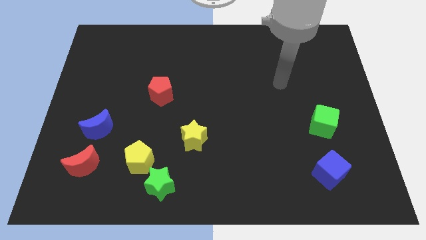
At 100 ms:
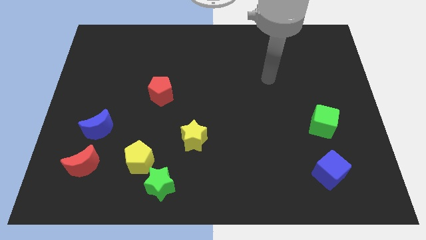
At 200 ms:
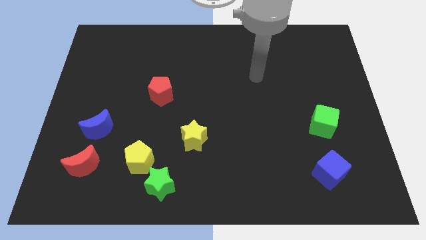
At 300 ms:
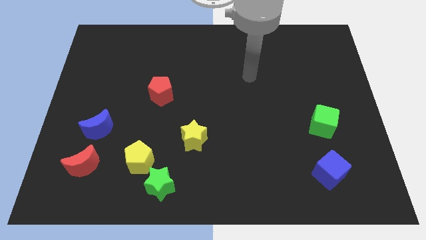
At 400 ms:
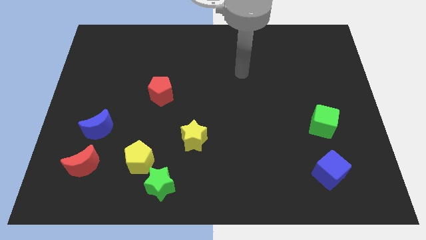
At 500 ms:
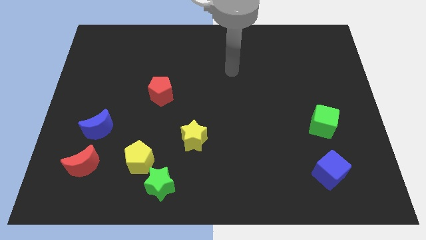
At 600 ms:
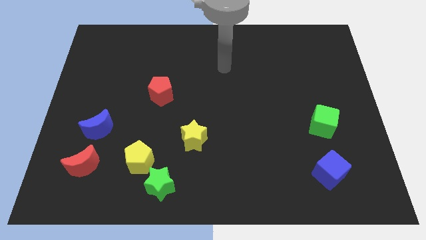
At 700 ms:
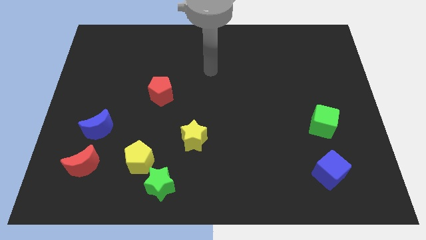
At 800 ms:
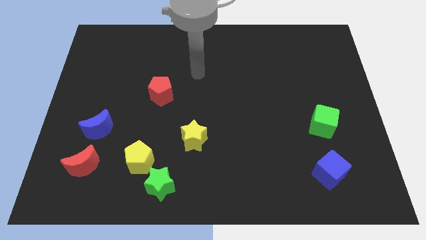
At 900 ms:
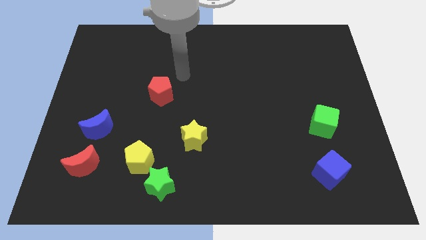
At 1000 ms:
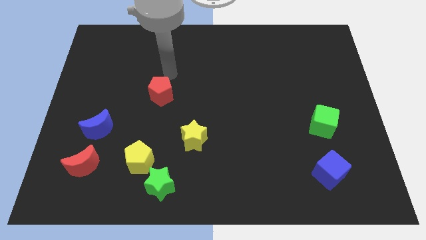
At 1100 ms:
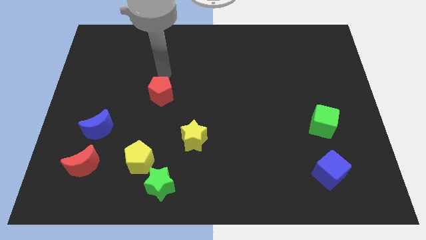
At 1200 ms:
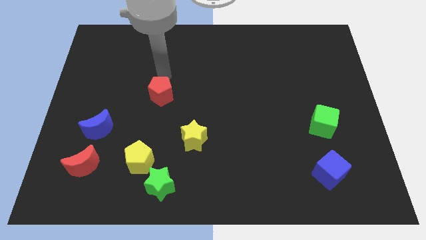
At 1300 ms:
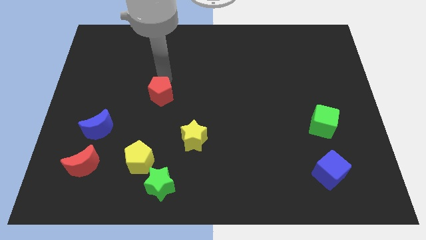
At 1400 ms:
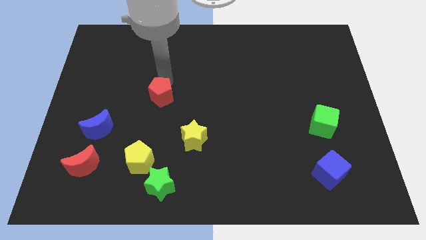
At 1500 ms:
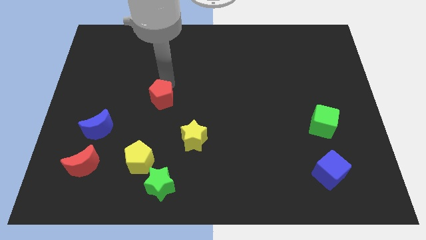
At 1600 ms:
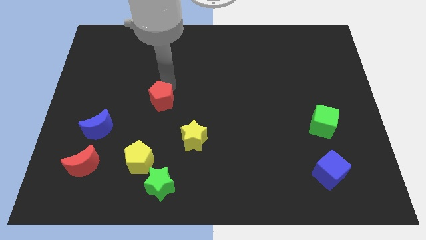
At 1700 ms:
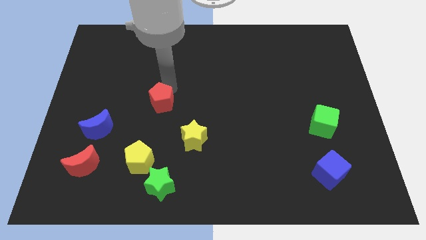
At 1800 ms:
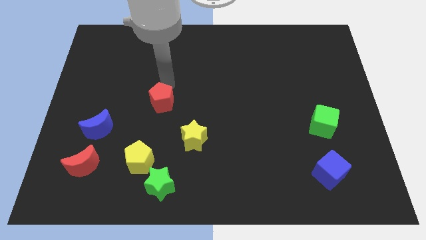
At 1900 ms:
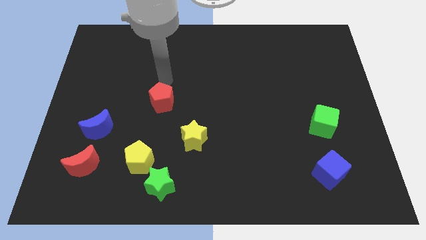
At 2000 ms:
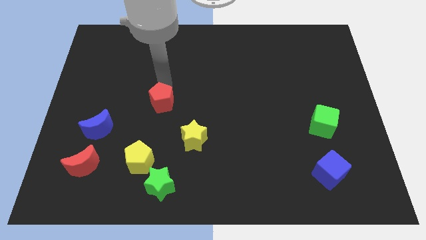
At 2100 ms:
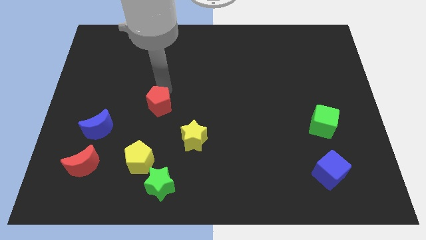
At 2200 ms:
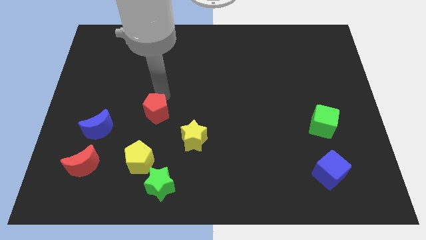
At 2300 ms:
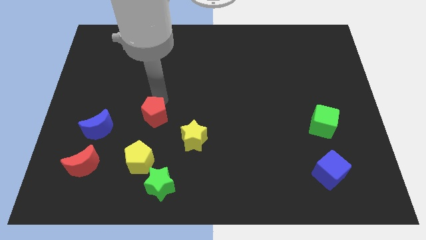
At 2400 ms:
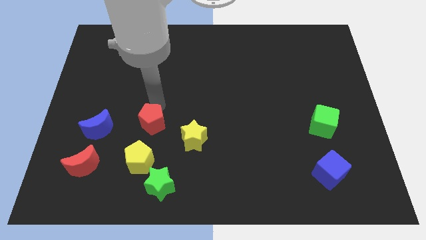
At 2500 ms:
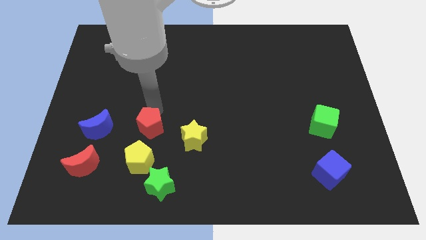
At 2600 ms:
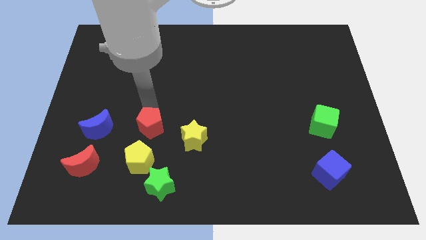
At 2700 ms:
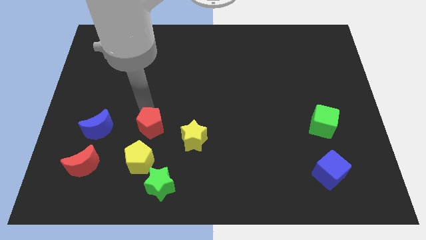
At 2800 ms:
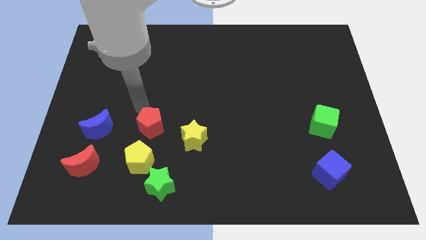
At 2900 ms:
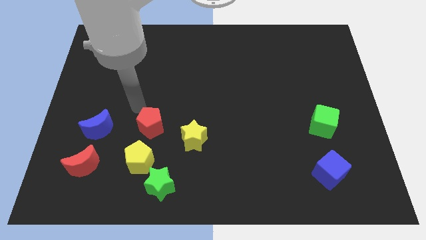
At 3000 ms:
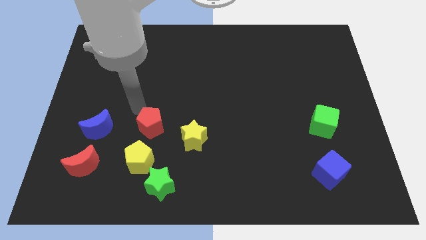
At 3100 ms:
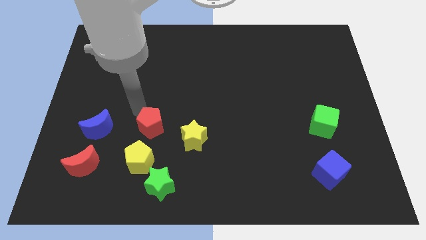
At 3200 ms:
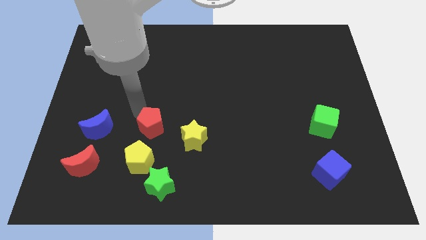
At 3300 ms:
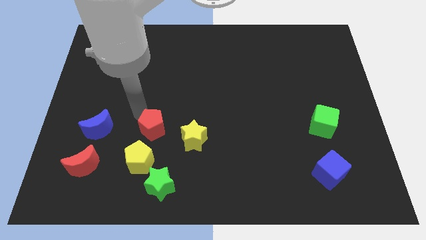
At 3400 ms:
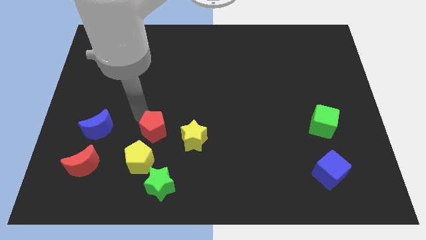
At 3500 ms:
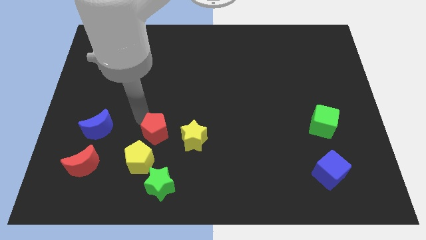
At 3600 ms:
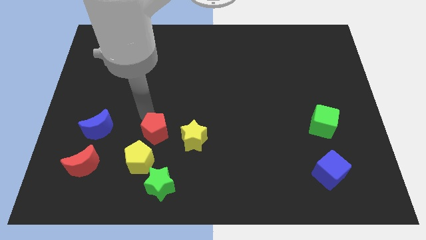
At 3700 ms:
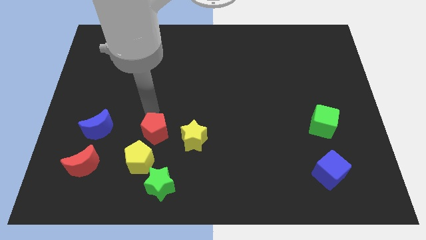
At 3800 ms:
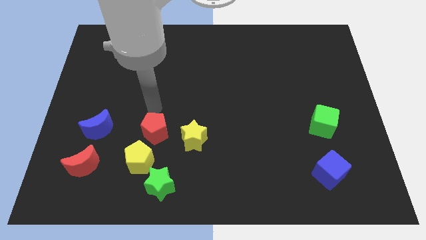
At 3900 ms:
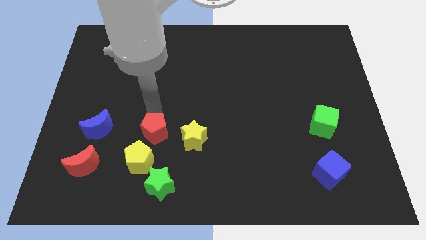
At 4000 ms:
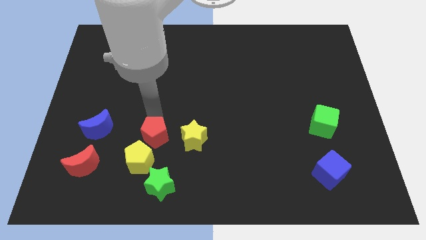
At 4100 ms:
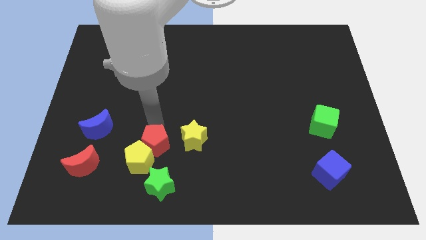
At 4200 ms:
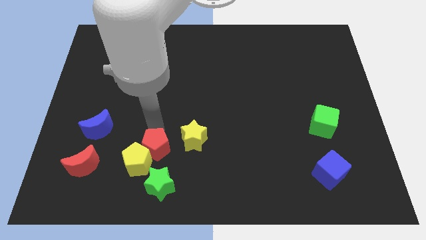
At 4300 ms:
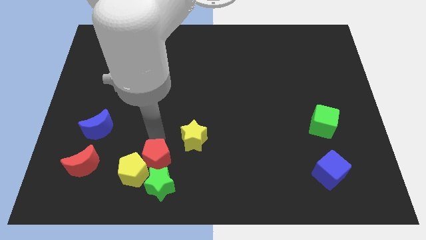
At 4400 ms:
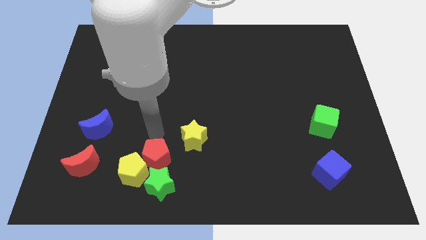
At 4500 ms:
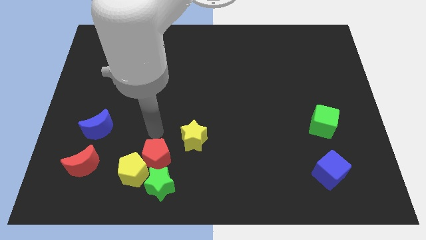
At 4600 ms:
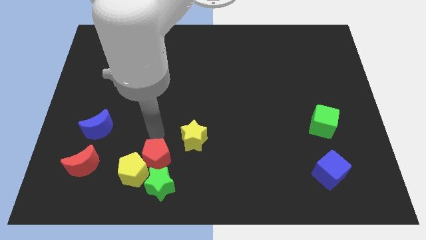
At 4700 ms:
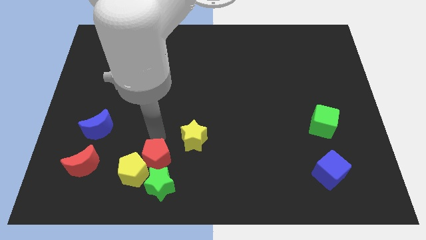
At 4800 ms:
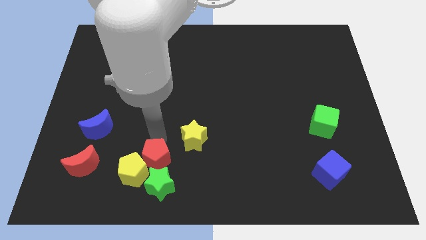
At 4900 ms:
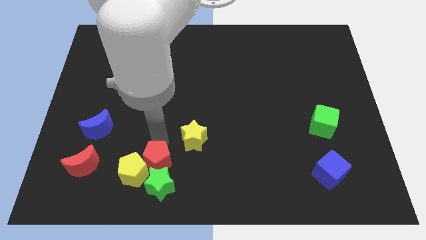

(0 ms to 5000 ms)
slide the red pentagon to the green star

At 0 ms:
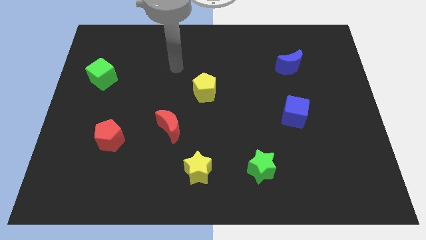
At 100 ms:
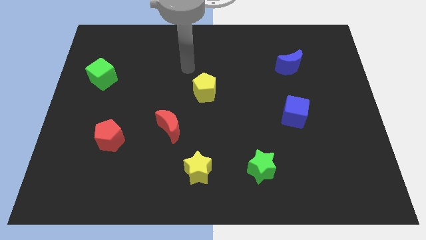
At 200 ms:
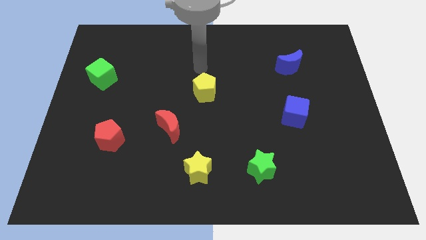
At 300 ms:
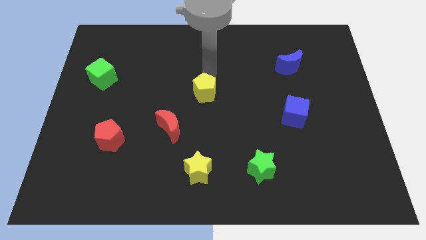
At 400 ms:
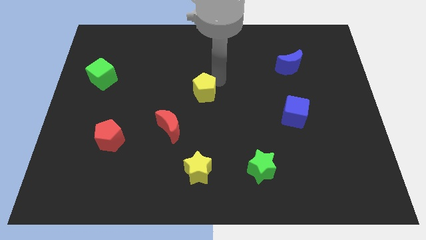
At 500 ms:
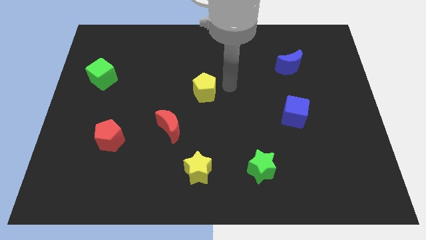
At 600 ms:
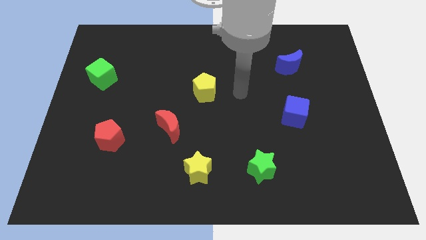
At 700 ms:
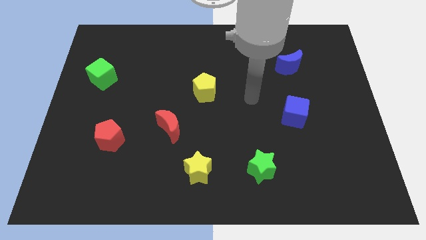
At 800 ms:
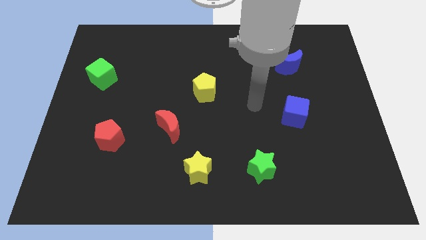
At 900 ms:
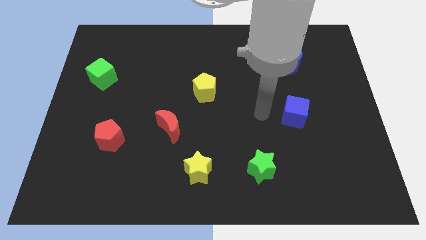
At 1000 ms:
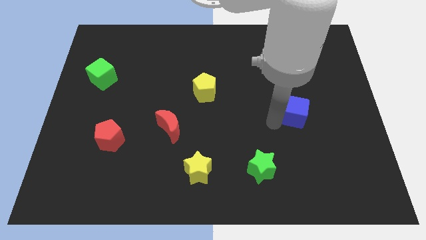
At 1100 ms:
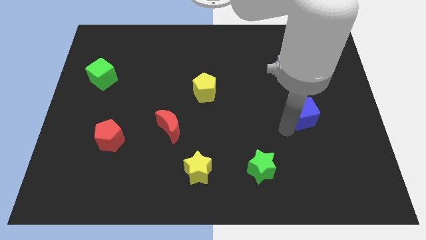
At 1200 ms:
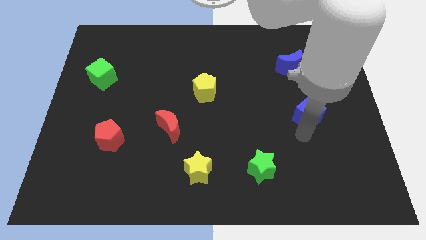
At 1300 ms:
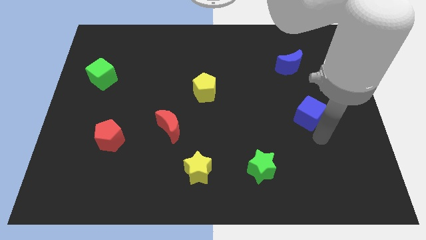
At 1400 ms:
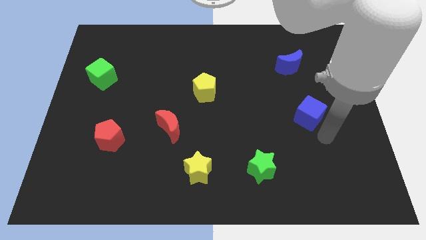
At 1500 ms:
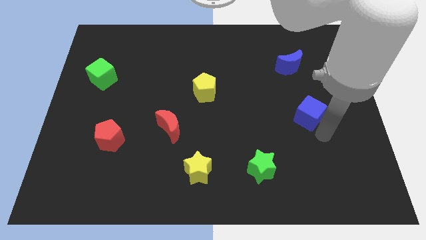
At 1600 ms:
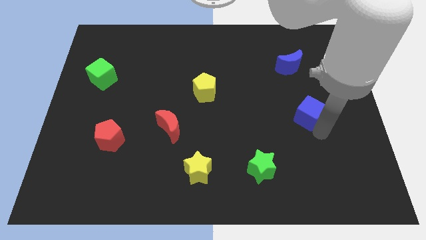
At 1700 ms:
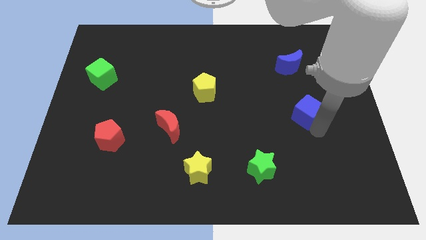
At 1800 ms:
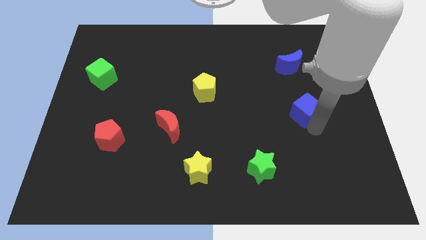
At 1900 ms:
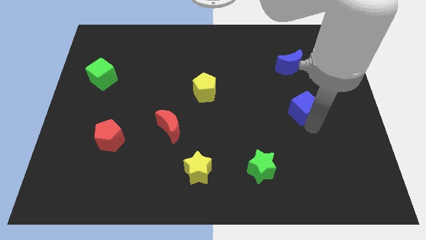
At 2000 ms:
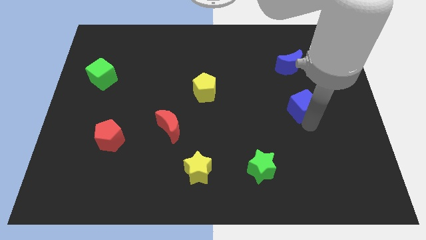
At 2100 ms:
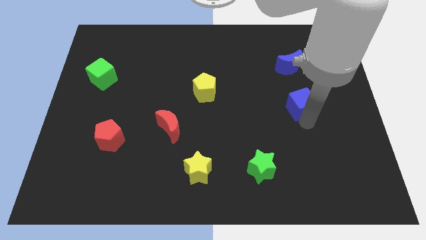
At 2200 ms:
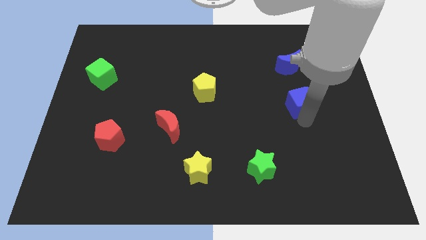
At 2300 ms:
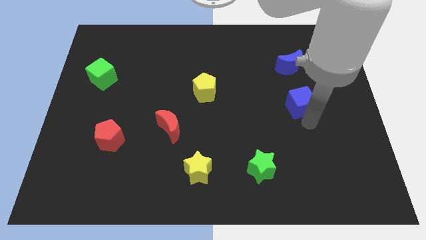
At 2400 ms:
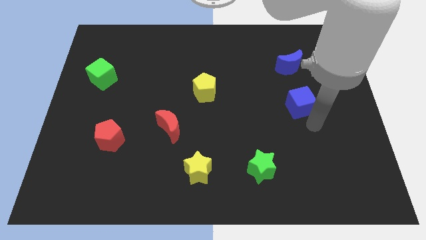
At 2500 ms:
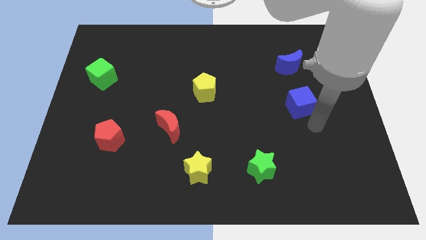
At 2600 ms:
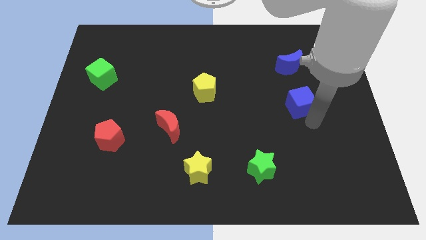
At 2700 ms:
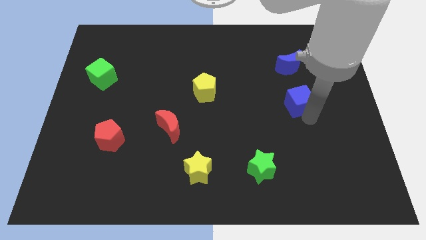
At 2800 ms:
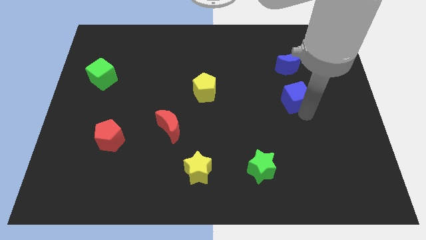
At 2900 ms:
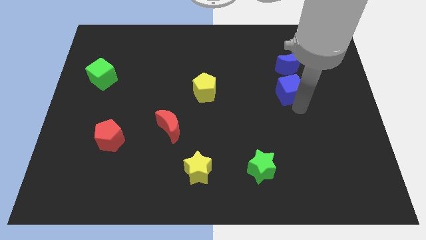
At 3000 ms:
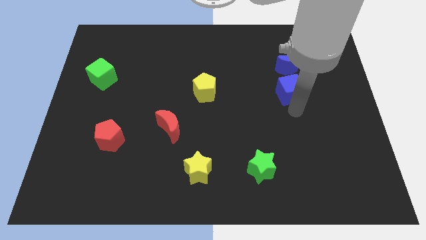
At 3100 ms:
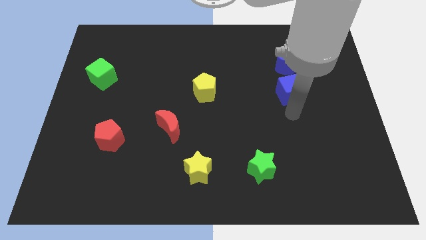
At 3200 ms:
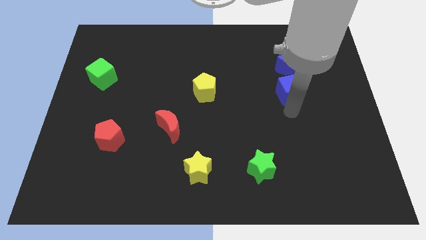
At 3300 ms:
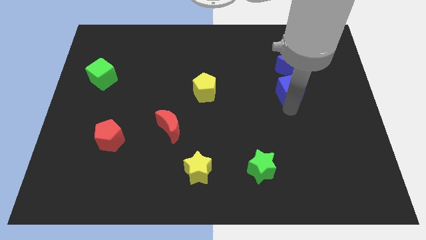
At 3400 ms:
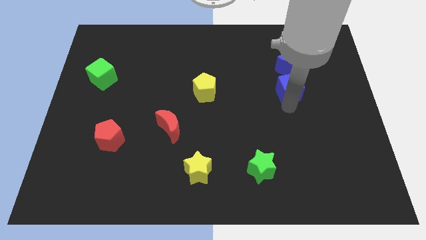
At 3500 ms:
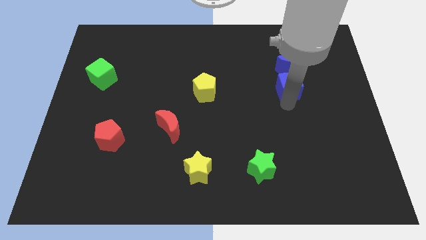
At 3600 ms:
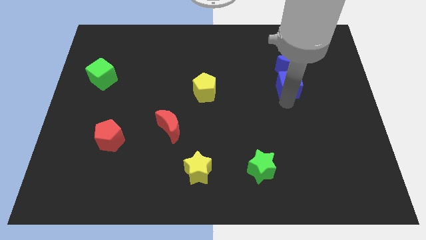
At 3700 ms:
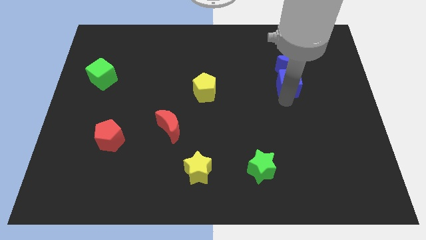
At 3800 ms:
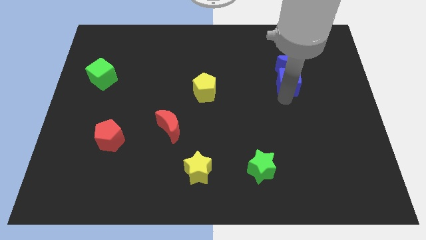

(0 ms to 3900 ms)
move the blue cube towards the blue moon
